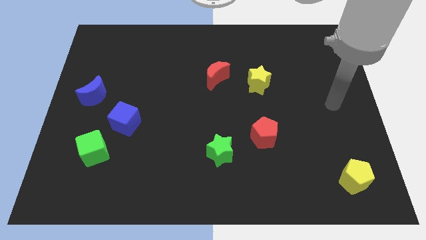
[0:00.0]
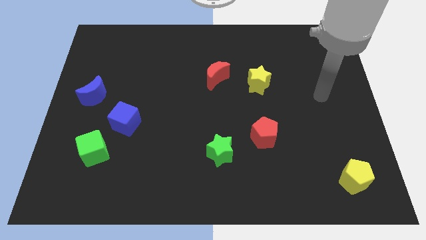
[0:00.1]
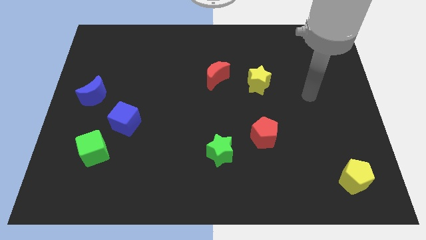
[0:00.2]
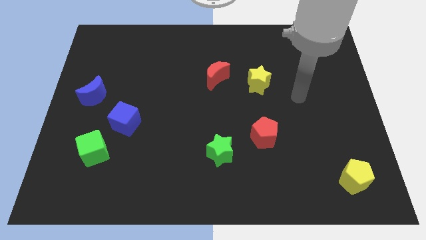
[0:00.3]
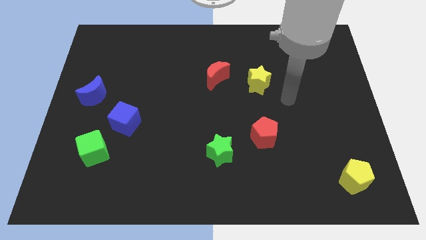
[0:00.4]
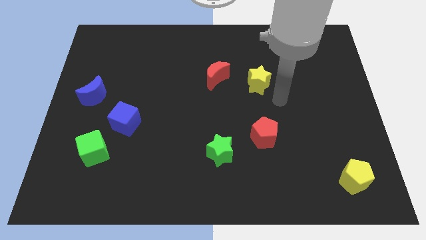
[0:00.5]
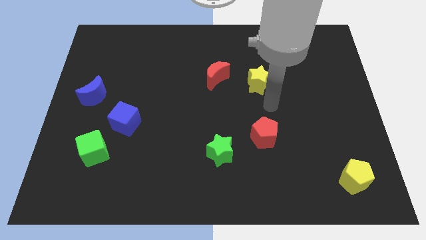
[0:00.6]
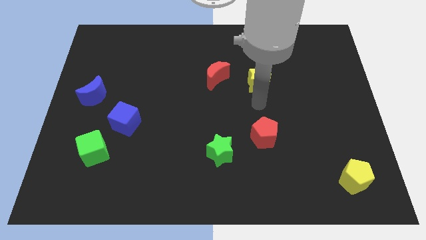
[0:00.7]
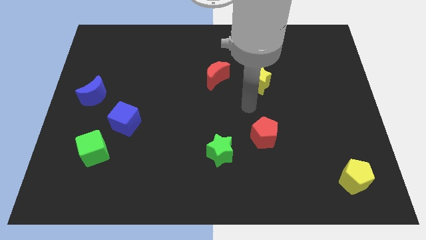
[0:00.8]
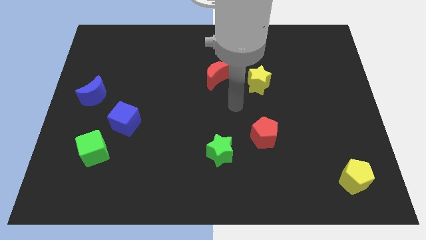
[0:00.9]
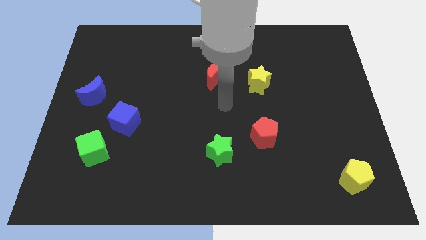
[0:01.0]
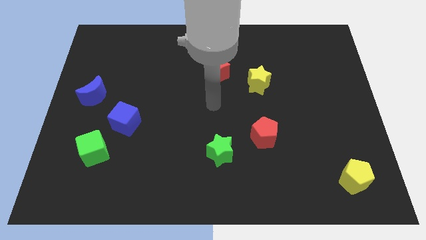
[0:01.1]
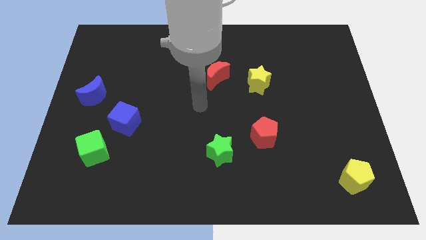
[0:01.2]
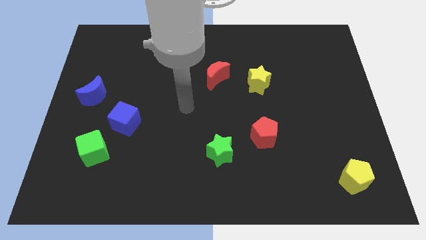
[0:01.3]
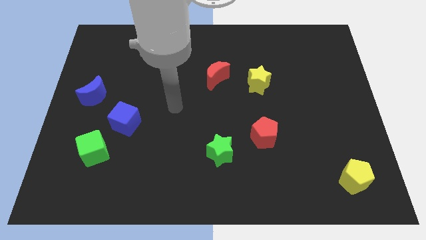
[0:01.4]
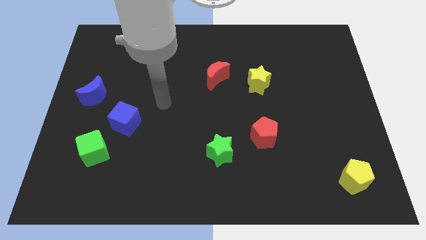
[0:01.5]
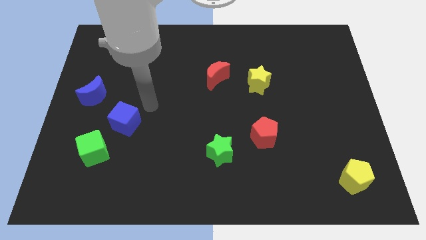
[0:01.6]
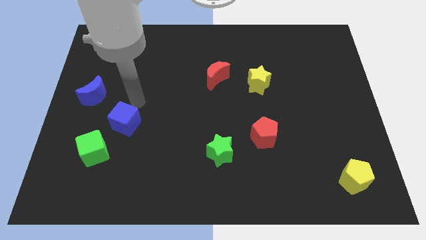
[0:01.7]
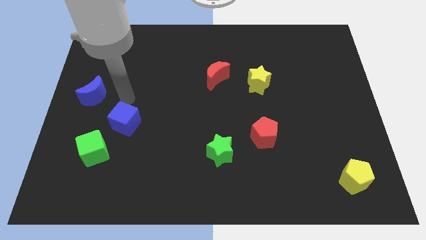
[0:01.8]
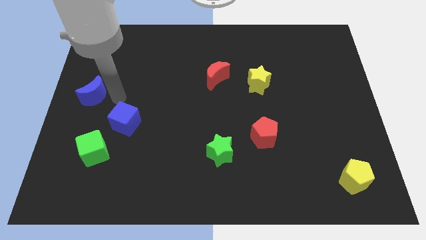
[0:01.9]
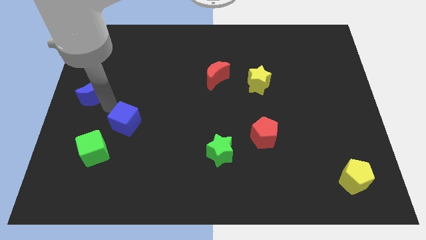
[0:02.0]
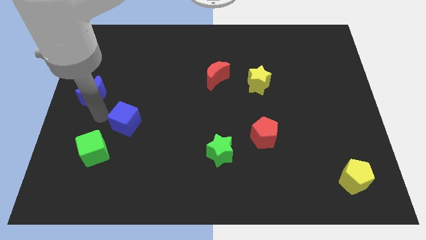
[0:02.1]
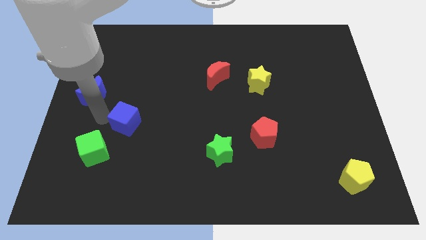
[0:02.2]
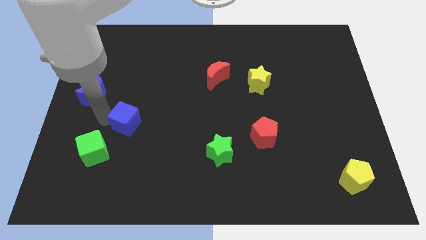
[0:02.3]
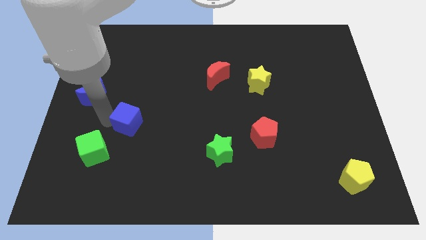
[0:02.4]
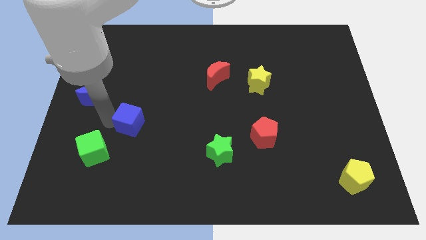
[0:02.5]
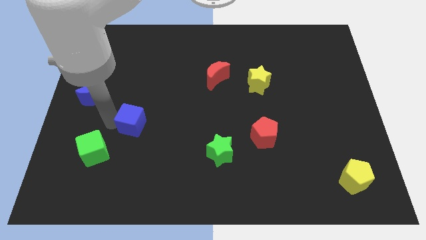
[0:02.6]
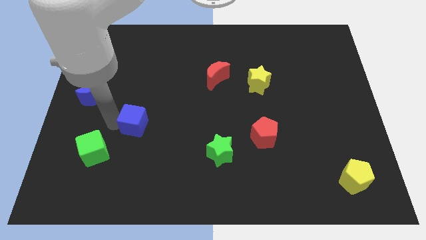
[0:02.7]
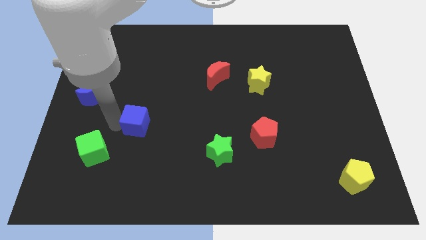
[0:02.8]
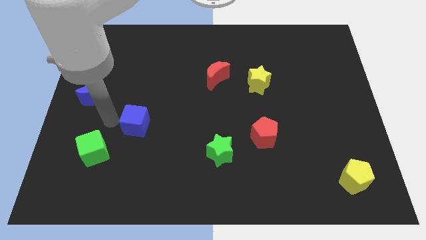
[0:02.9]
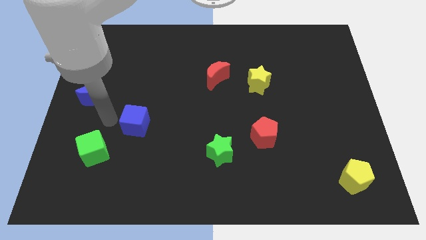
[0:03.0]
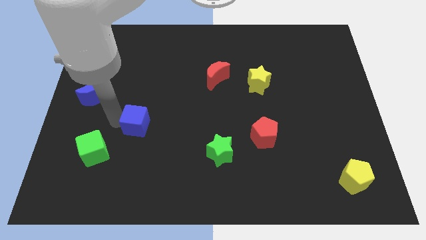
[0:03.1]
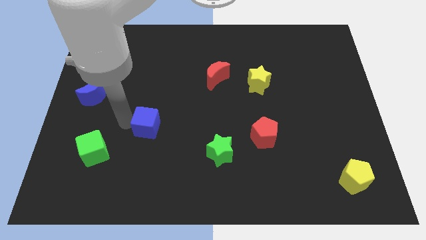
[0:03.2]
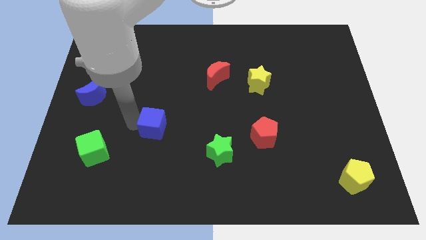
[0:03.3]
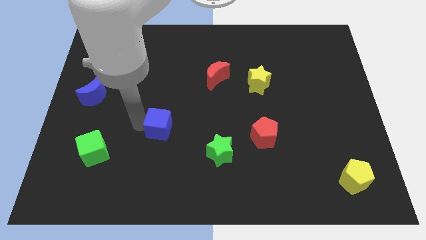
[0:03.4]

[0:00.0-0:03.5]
slide the blue cube right a little bit

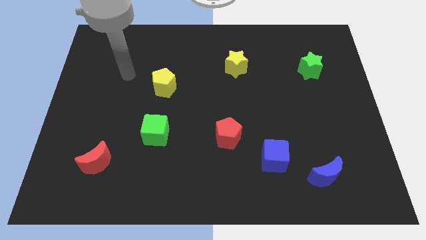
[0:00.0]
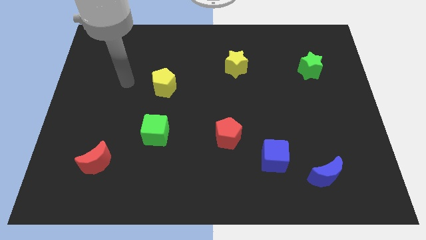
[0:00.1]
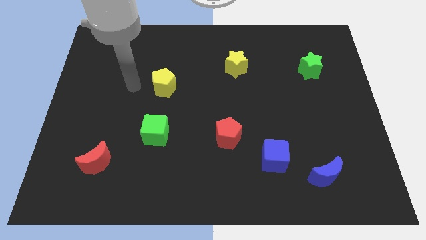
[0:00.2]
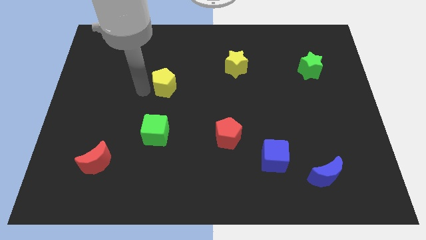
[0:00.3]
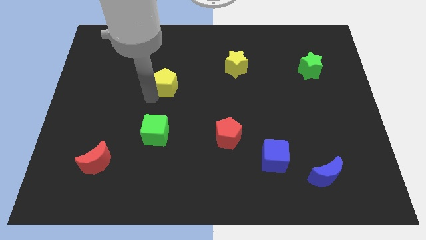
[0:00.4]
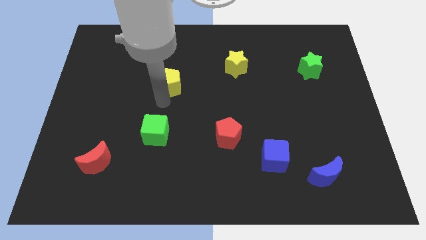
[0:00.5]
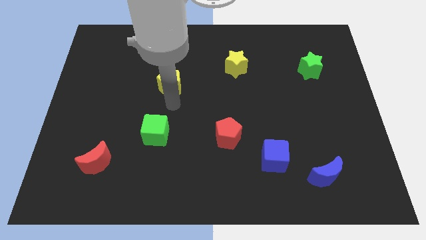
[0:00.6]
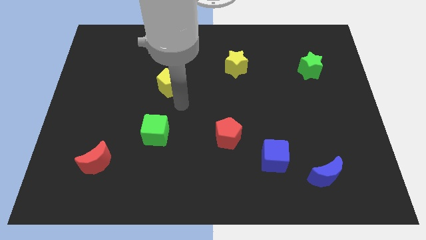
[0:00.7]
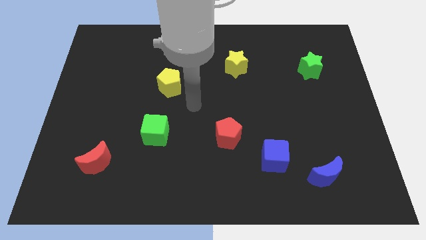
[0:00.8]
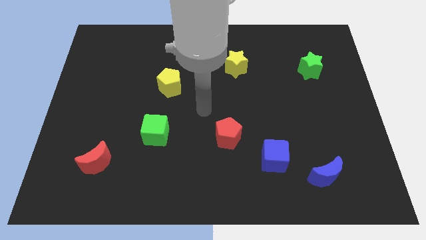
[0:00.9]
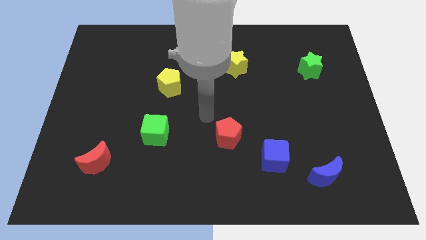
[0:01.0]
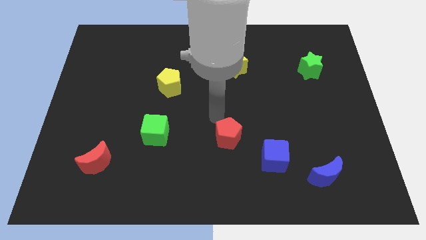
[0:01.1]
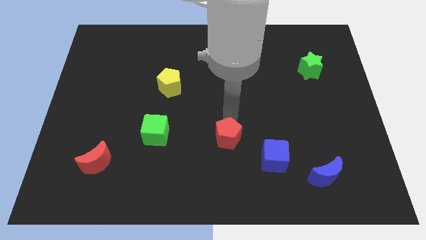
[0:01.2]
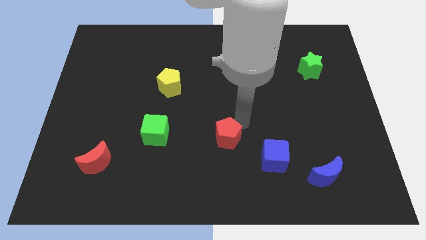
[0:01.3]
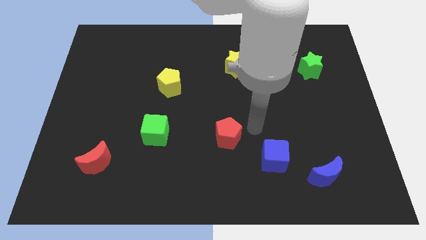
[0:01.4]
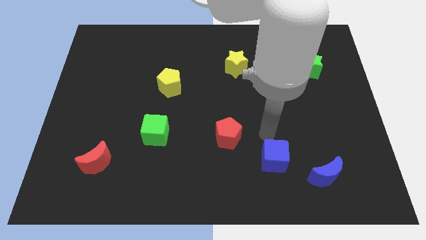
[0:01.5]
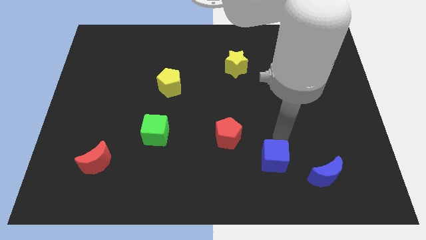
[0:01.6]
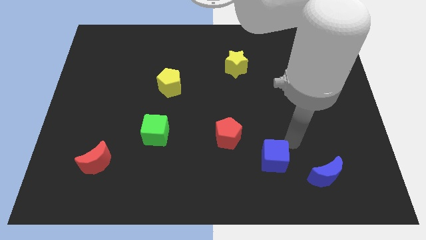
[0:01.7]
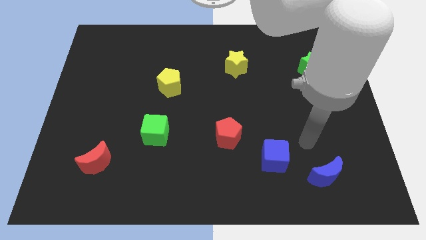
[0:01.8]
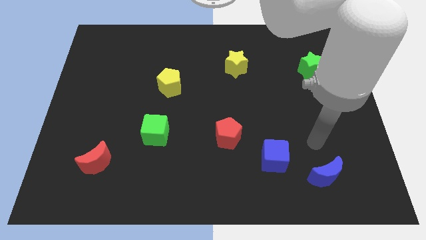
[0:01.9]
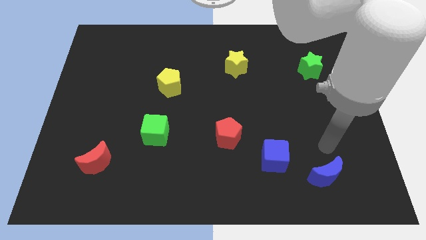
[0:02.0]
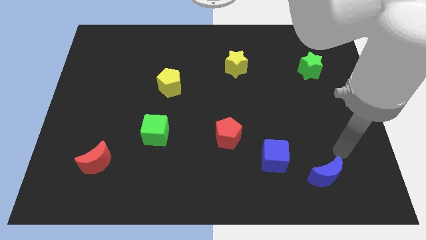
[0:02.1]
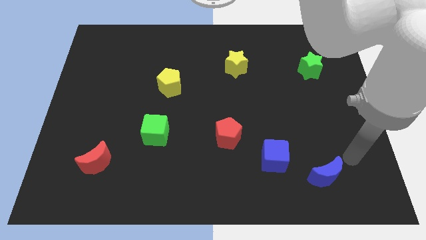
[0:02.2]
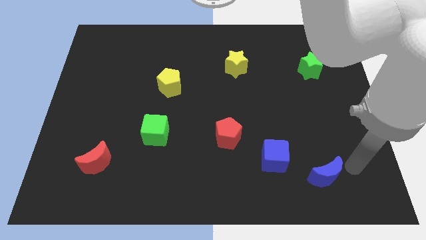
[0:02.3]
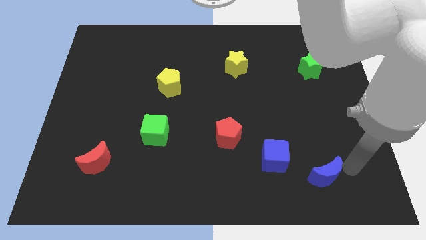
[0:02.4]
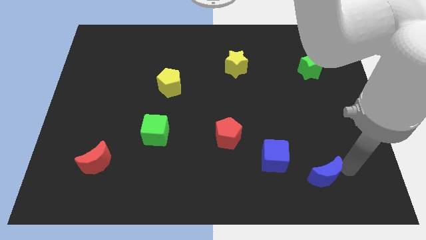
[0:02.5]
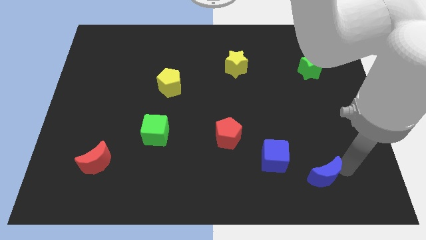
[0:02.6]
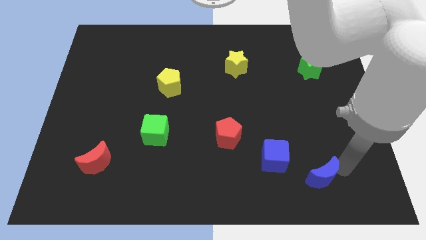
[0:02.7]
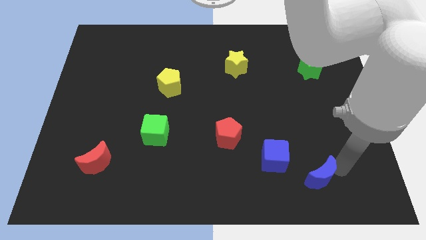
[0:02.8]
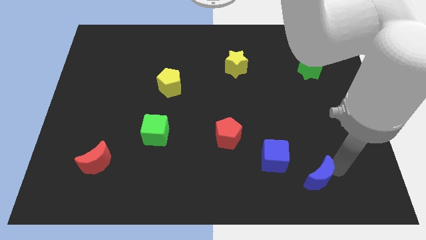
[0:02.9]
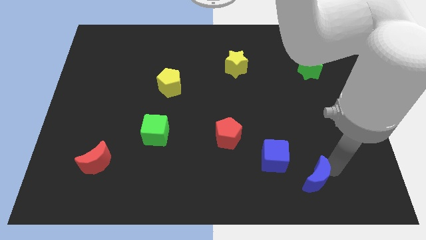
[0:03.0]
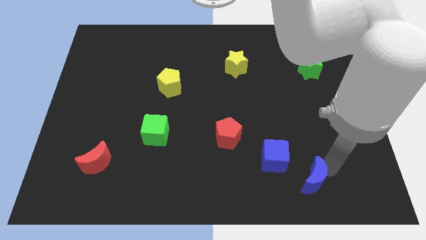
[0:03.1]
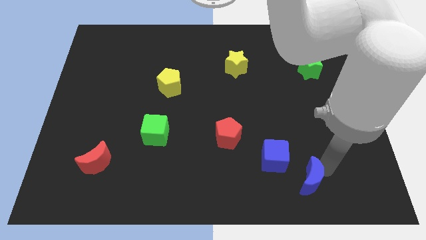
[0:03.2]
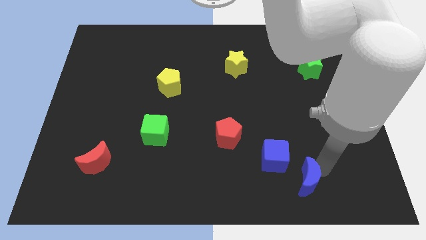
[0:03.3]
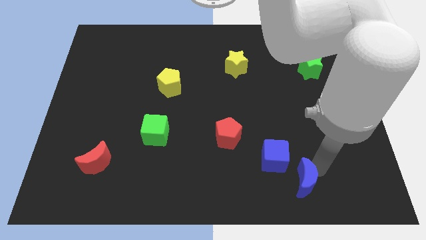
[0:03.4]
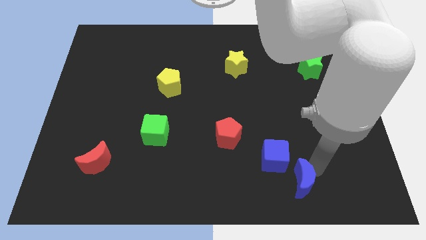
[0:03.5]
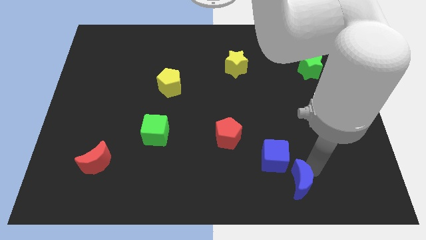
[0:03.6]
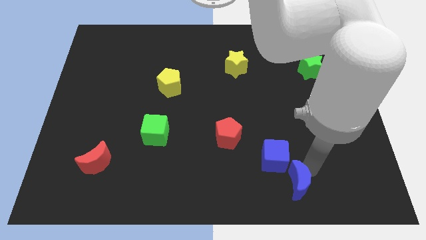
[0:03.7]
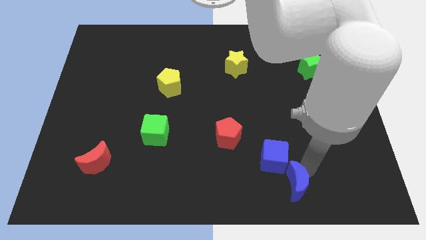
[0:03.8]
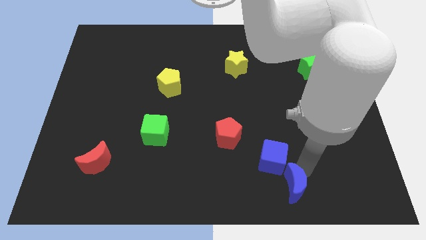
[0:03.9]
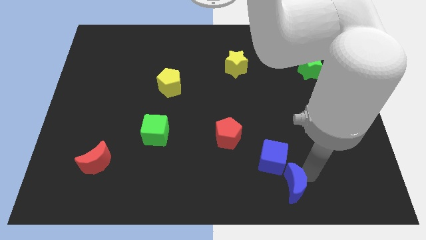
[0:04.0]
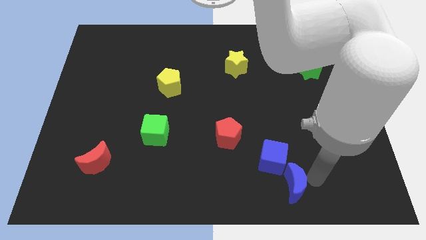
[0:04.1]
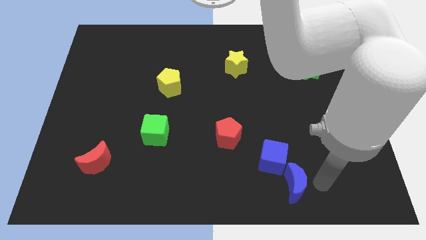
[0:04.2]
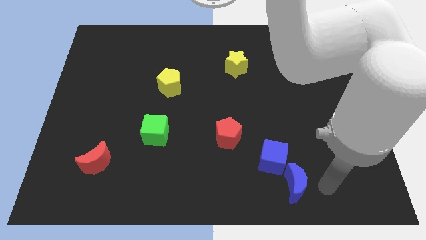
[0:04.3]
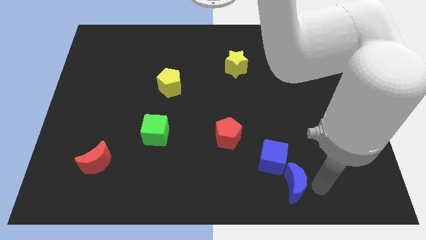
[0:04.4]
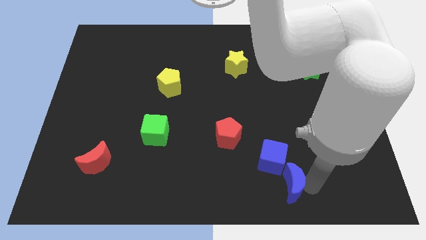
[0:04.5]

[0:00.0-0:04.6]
slightly move the blue moon left
